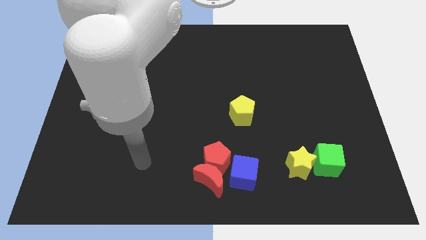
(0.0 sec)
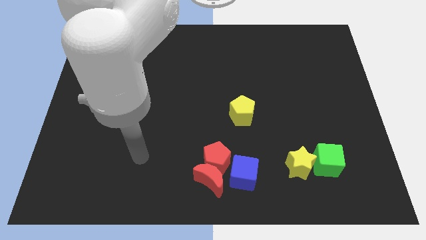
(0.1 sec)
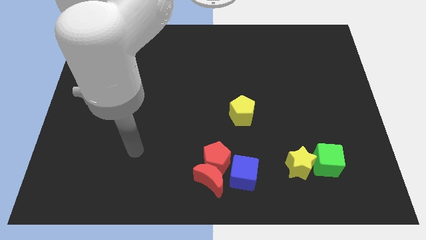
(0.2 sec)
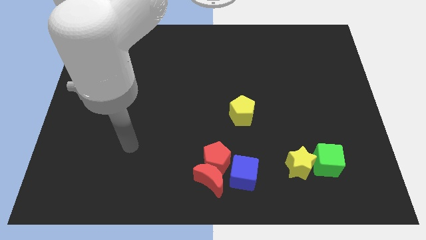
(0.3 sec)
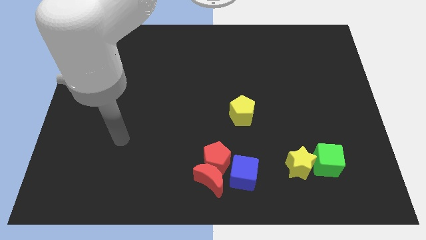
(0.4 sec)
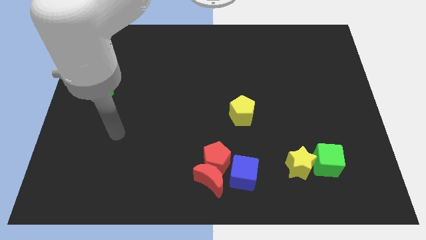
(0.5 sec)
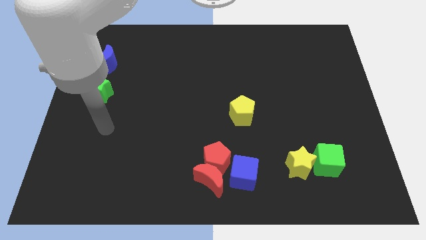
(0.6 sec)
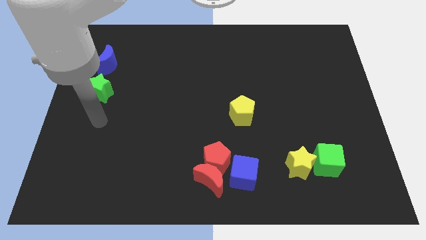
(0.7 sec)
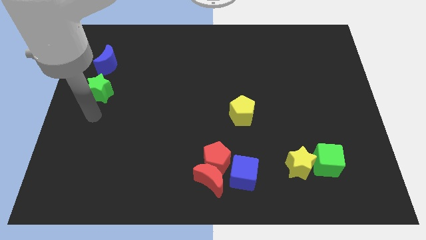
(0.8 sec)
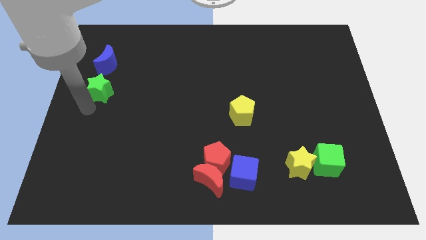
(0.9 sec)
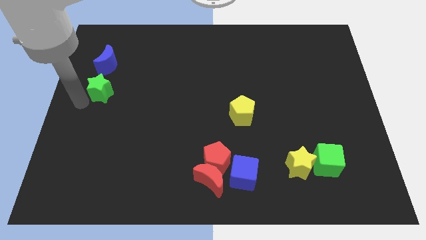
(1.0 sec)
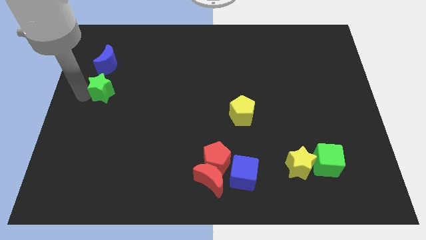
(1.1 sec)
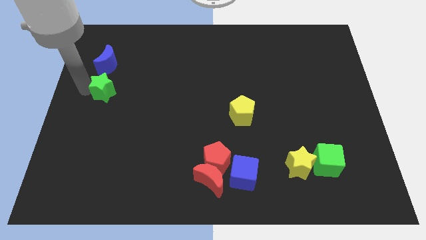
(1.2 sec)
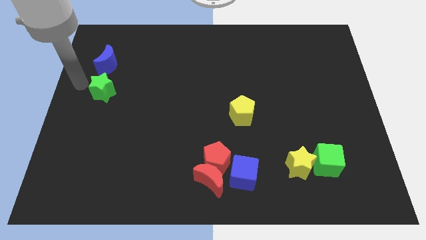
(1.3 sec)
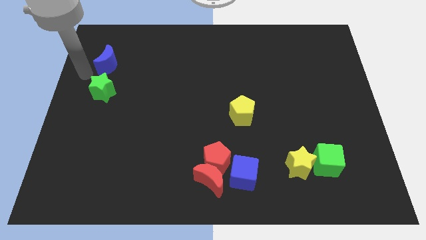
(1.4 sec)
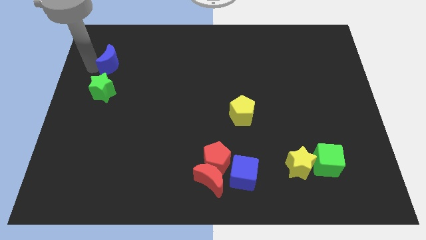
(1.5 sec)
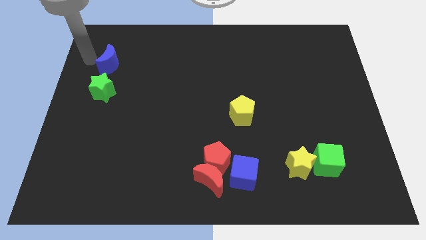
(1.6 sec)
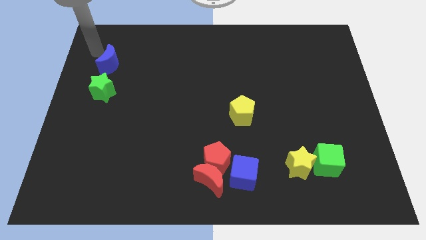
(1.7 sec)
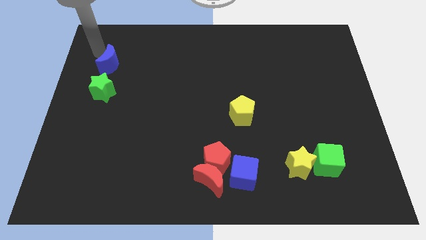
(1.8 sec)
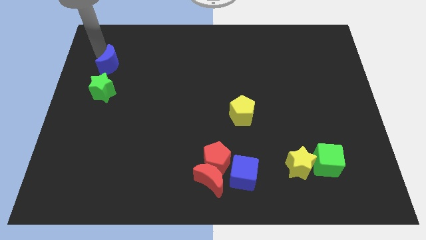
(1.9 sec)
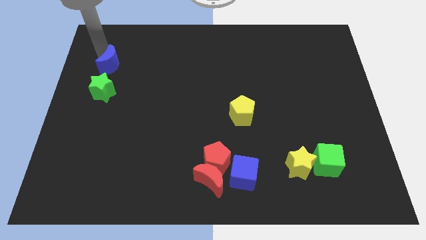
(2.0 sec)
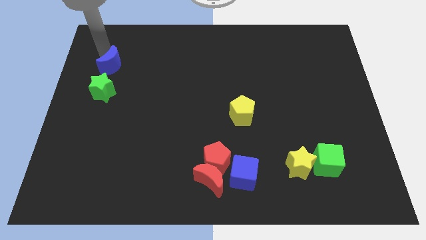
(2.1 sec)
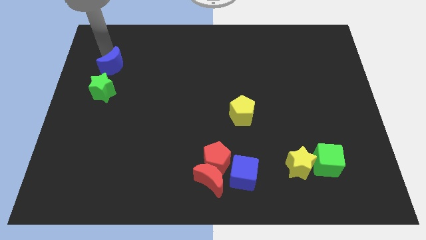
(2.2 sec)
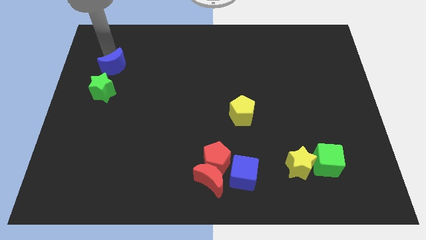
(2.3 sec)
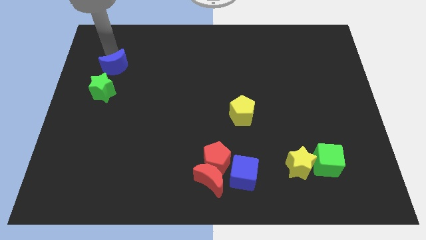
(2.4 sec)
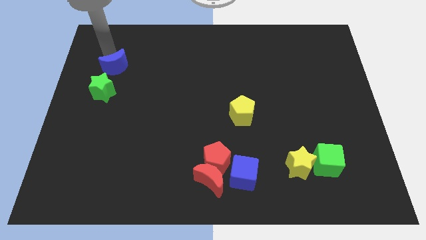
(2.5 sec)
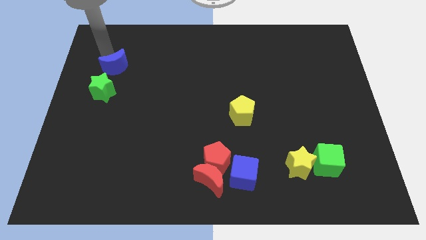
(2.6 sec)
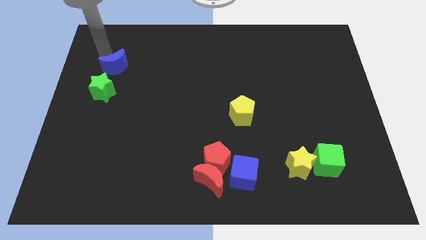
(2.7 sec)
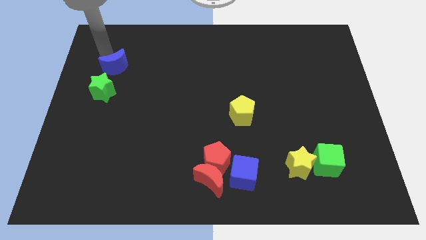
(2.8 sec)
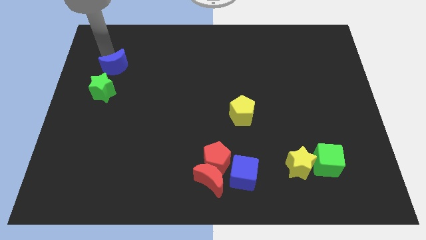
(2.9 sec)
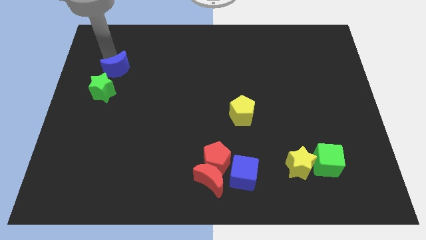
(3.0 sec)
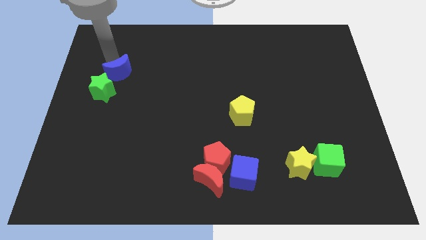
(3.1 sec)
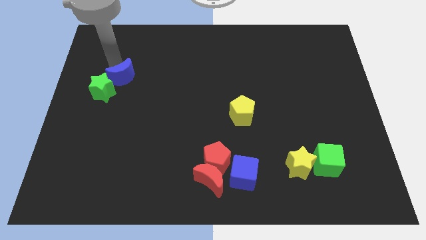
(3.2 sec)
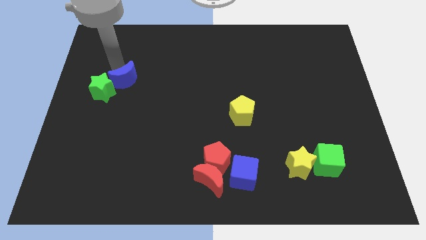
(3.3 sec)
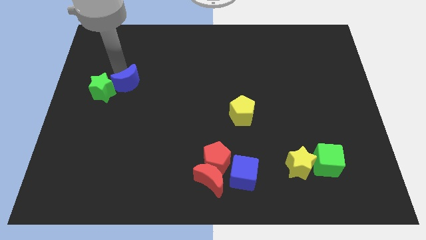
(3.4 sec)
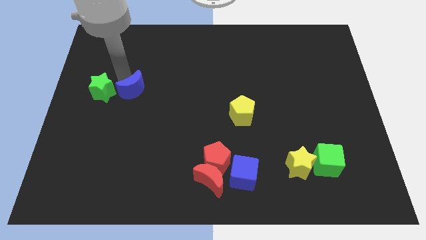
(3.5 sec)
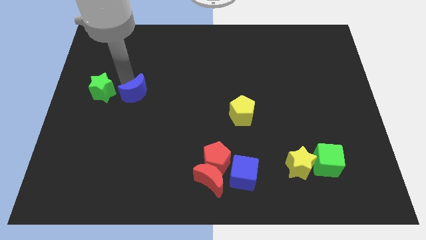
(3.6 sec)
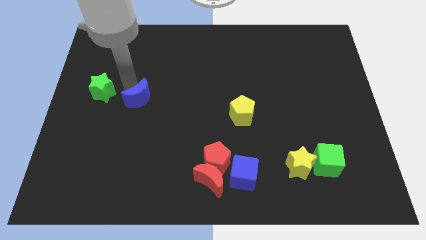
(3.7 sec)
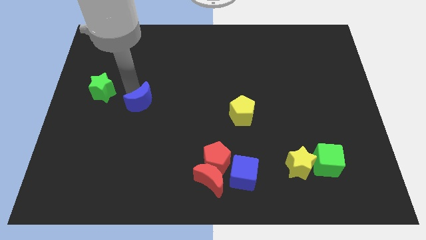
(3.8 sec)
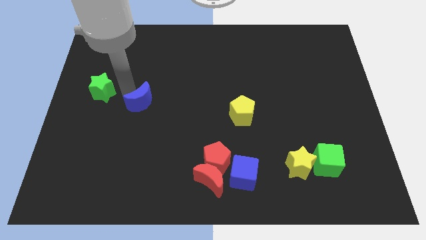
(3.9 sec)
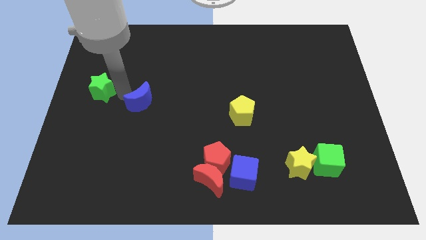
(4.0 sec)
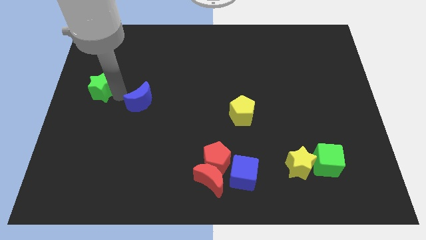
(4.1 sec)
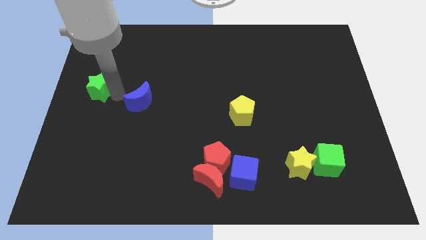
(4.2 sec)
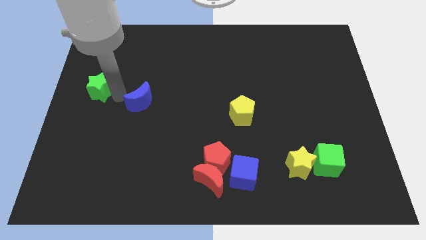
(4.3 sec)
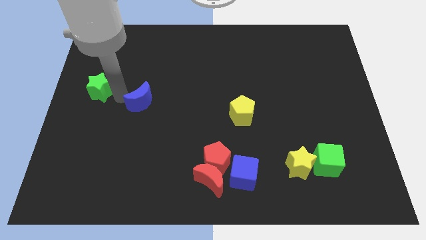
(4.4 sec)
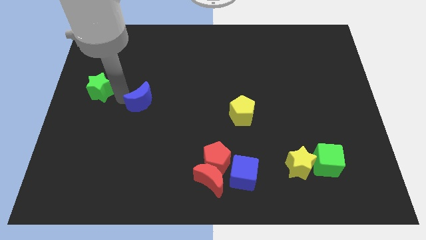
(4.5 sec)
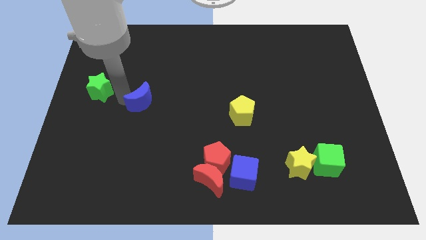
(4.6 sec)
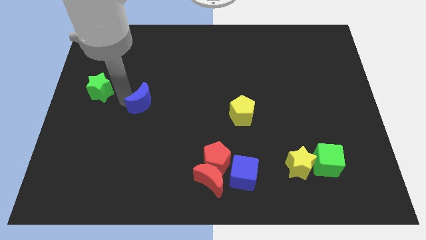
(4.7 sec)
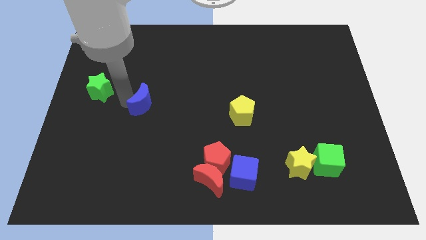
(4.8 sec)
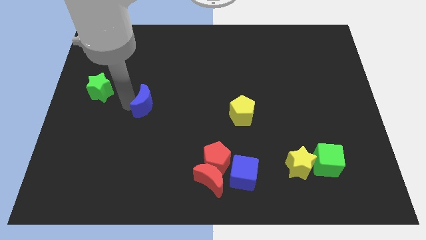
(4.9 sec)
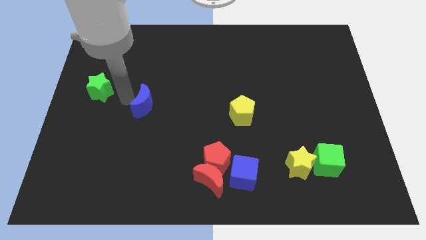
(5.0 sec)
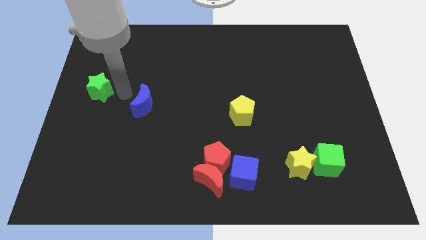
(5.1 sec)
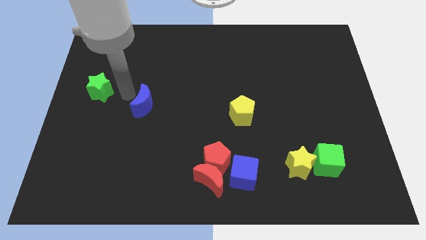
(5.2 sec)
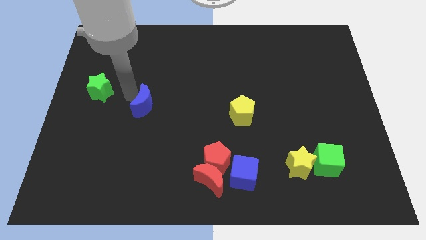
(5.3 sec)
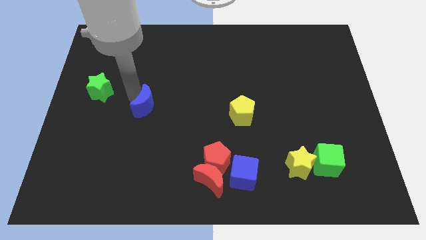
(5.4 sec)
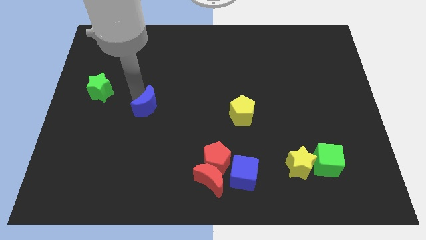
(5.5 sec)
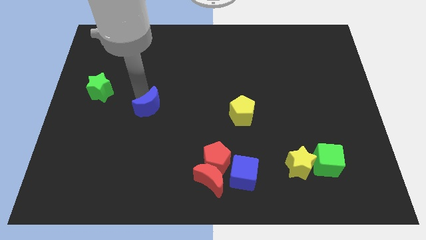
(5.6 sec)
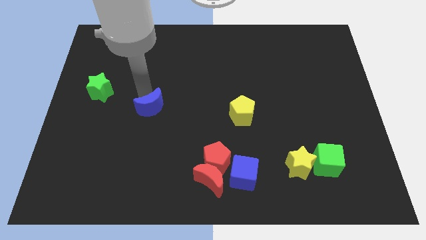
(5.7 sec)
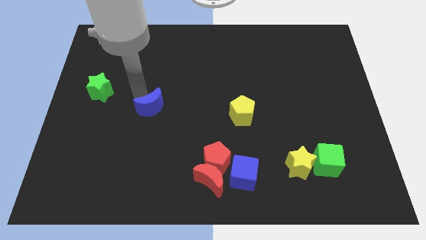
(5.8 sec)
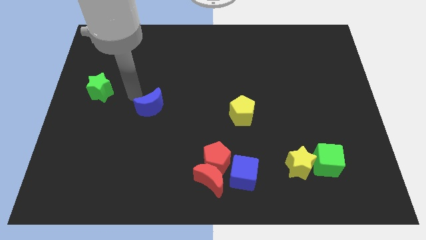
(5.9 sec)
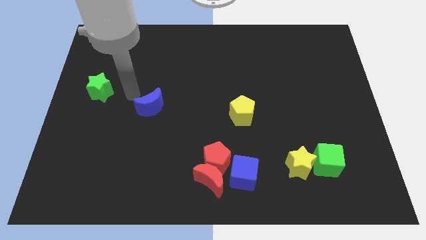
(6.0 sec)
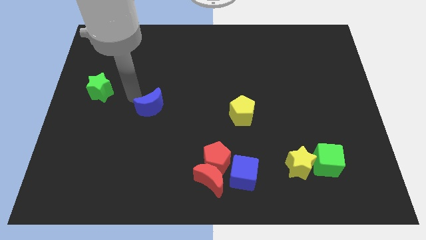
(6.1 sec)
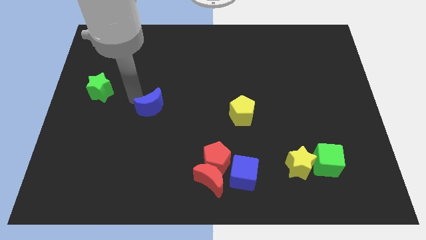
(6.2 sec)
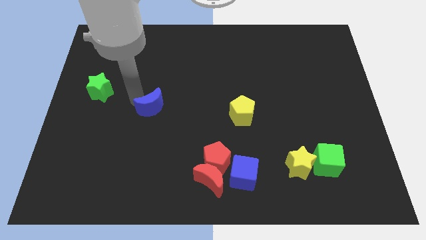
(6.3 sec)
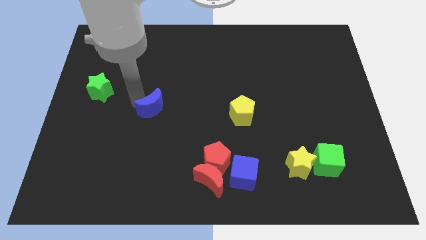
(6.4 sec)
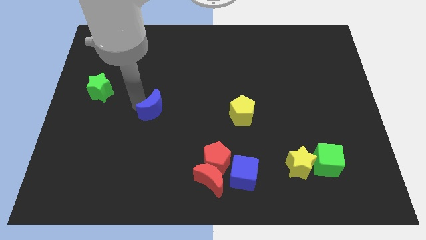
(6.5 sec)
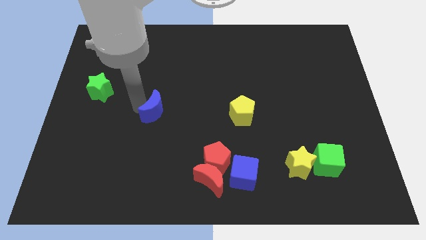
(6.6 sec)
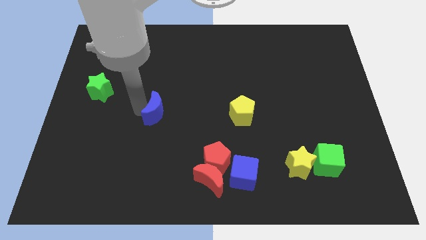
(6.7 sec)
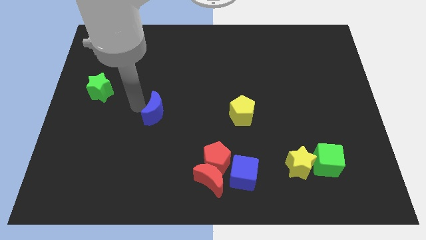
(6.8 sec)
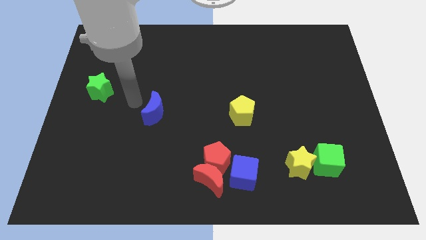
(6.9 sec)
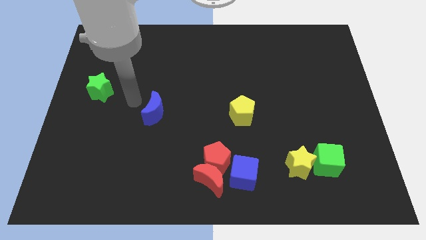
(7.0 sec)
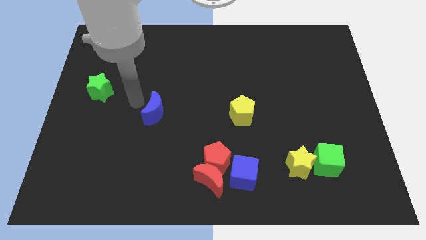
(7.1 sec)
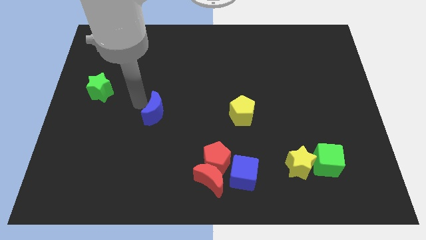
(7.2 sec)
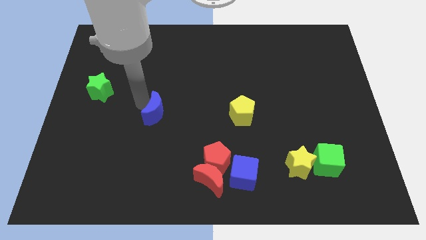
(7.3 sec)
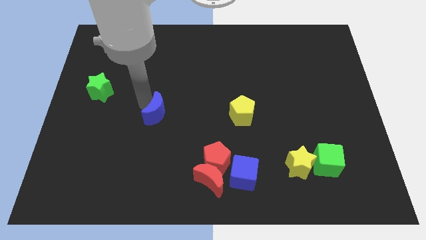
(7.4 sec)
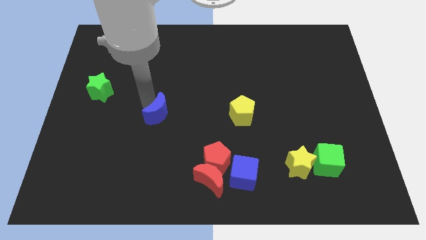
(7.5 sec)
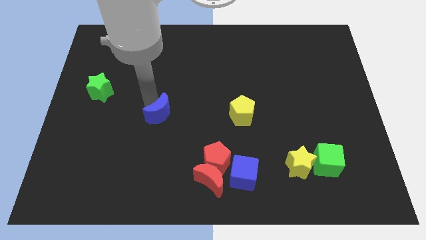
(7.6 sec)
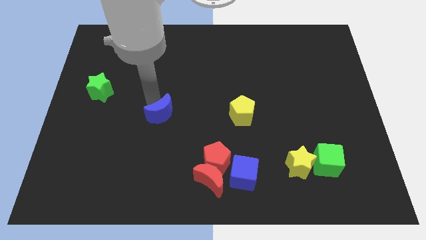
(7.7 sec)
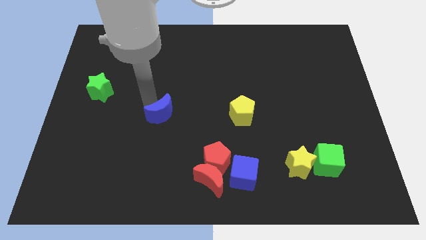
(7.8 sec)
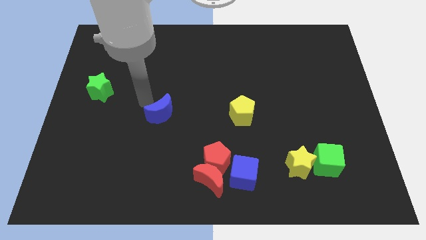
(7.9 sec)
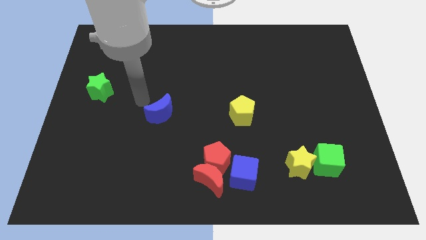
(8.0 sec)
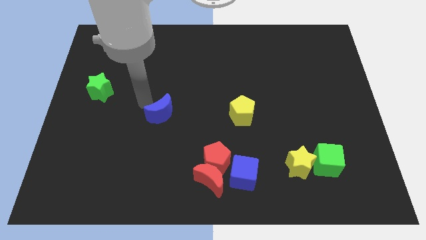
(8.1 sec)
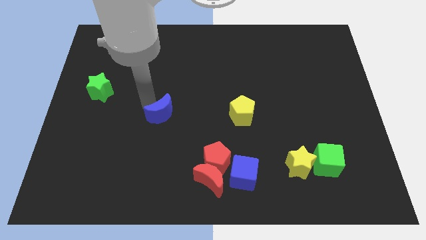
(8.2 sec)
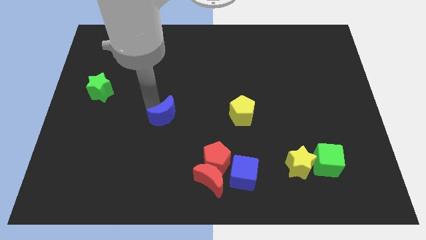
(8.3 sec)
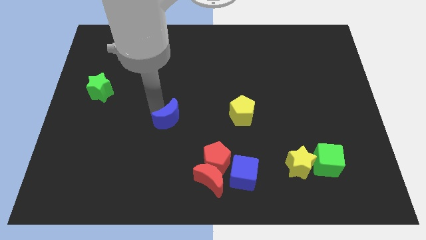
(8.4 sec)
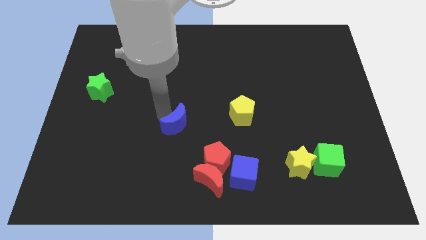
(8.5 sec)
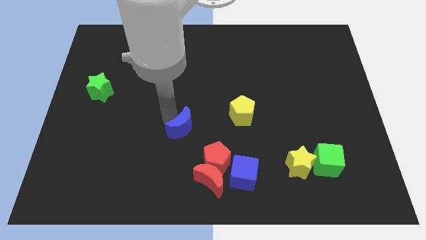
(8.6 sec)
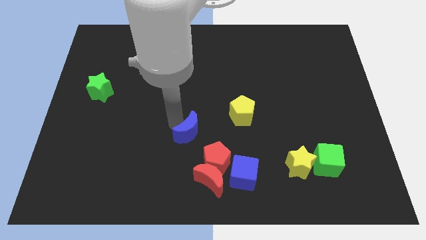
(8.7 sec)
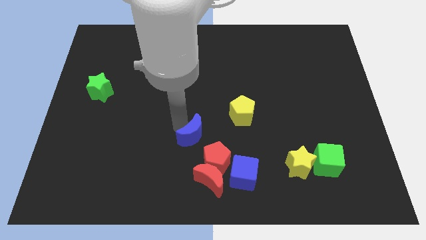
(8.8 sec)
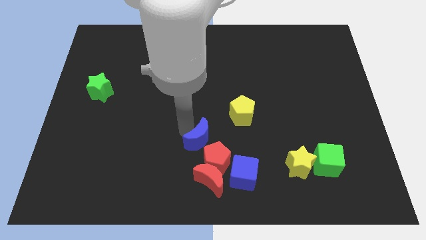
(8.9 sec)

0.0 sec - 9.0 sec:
put the blue moon to the top left side of the blue cube
